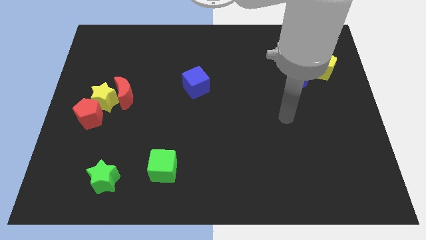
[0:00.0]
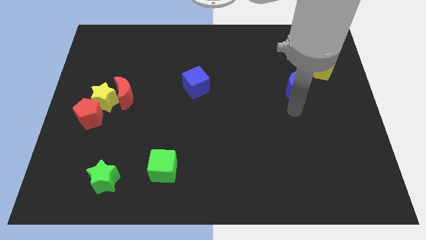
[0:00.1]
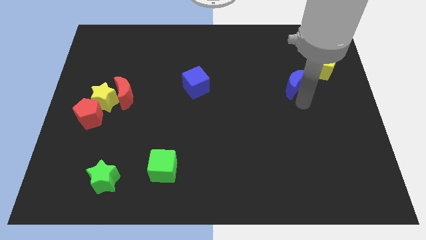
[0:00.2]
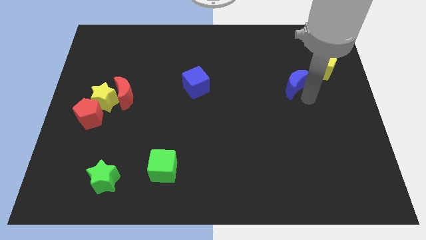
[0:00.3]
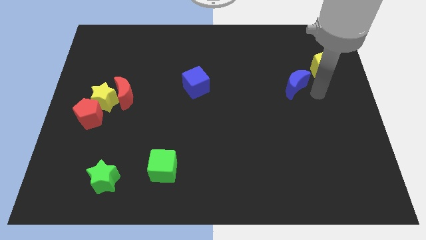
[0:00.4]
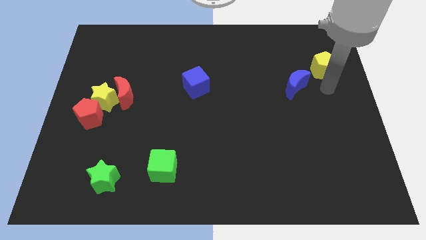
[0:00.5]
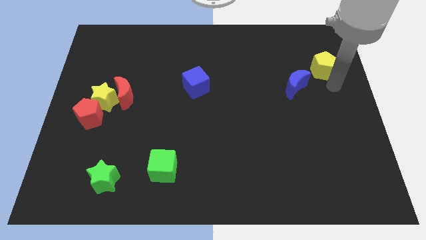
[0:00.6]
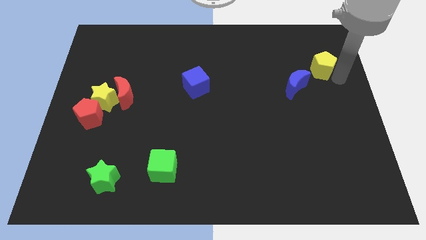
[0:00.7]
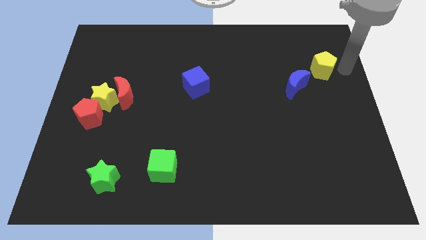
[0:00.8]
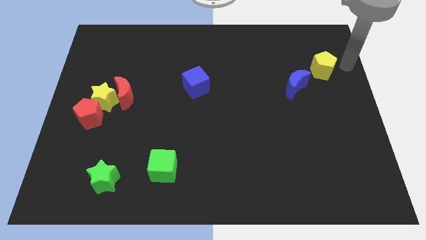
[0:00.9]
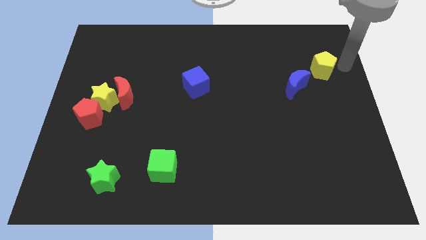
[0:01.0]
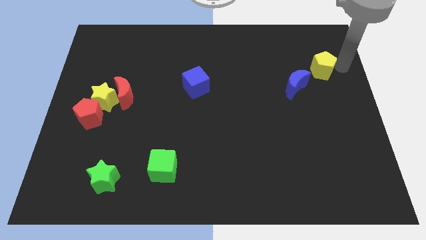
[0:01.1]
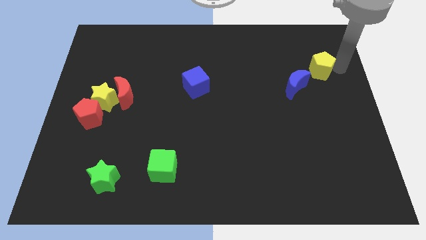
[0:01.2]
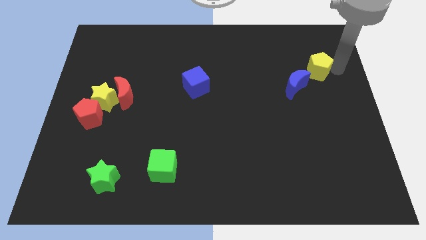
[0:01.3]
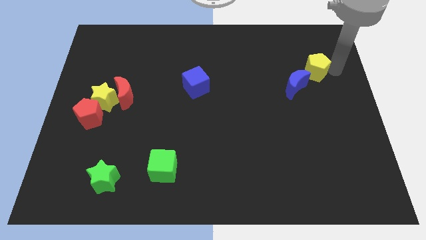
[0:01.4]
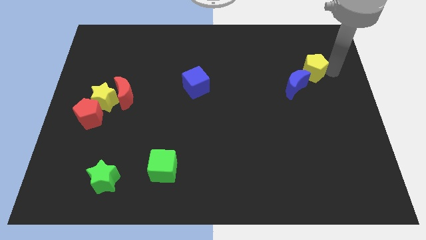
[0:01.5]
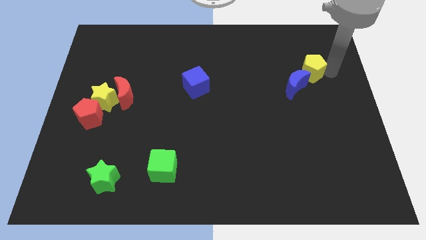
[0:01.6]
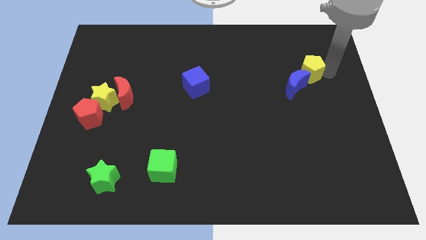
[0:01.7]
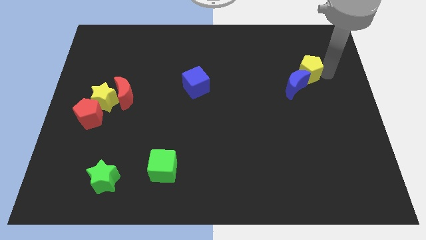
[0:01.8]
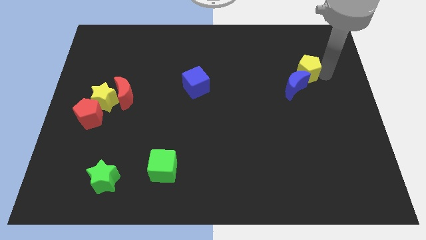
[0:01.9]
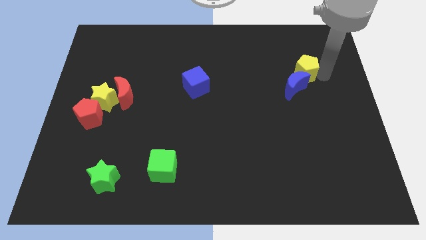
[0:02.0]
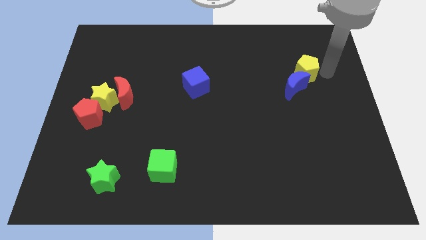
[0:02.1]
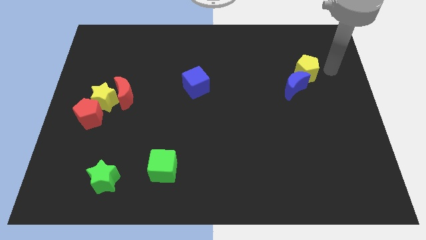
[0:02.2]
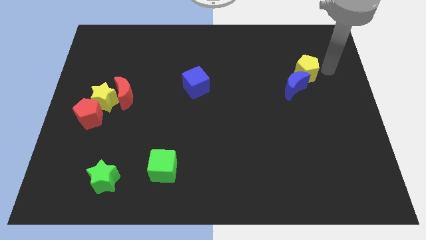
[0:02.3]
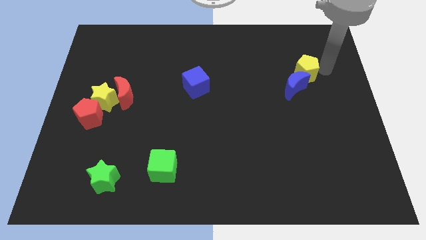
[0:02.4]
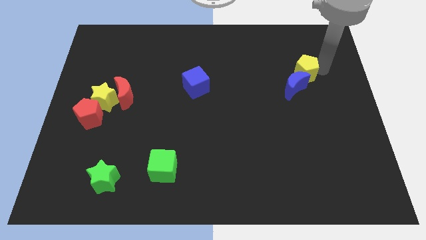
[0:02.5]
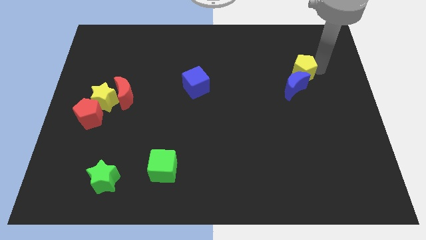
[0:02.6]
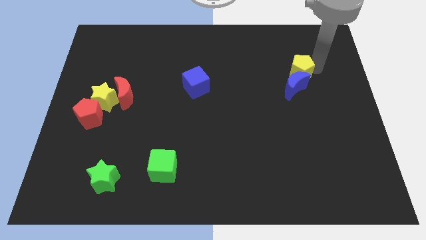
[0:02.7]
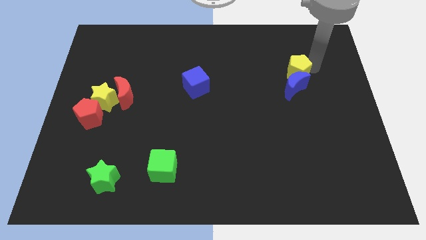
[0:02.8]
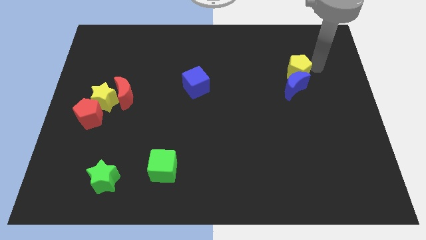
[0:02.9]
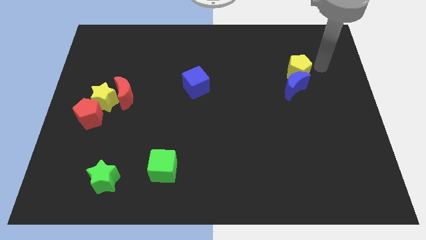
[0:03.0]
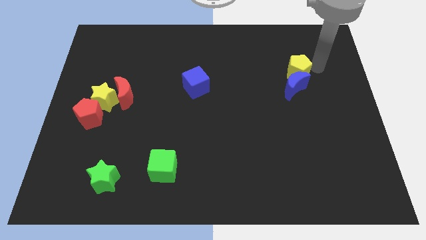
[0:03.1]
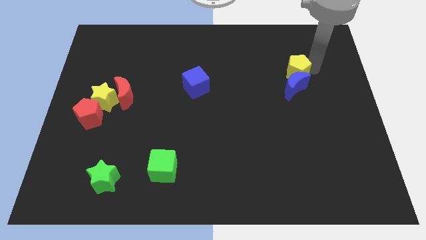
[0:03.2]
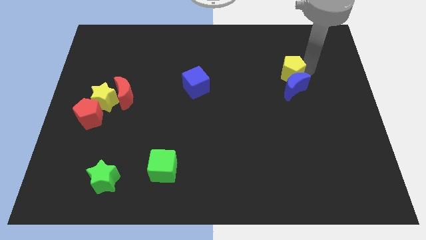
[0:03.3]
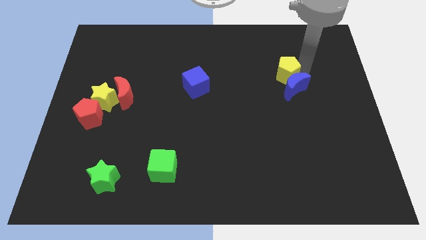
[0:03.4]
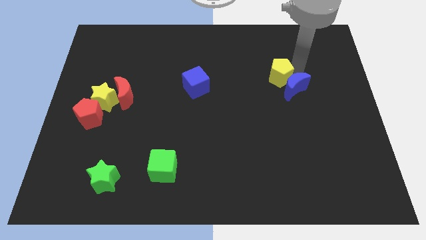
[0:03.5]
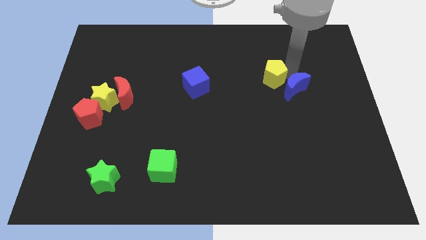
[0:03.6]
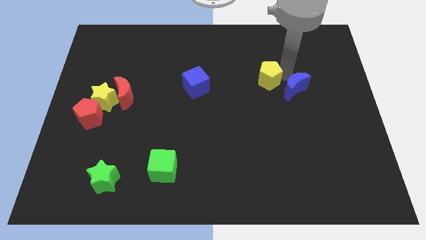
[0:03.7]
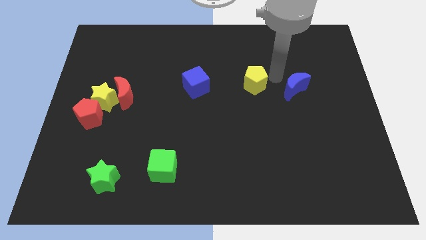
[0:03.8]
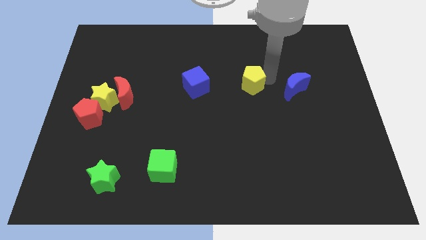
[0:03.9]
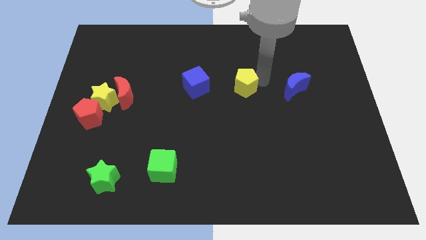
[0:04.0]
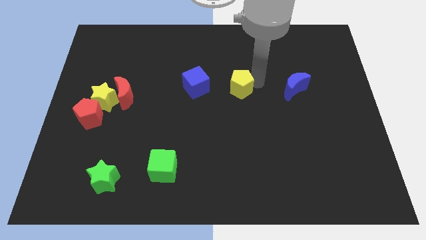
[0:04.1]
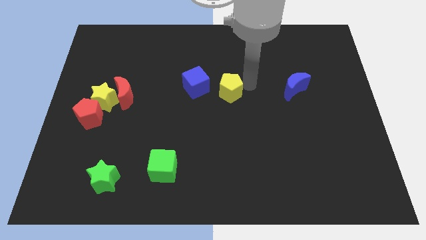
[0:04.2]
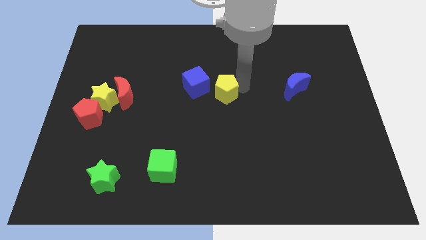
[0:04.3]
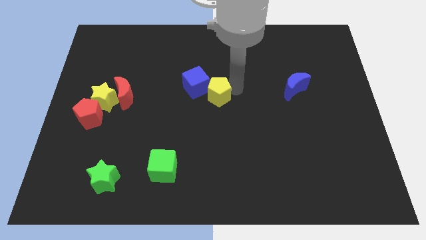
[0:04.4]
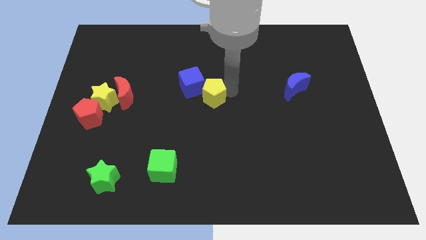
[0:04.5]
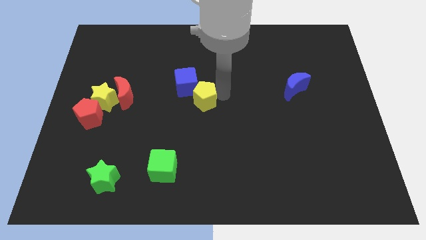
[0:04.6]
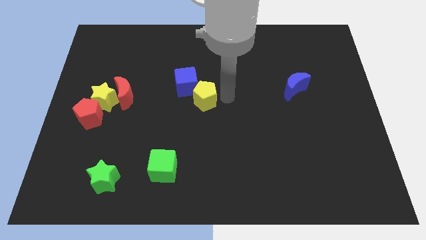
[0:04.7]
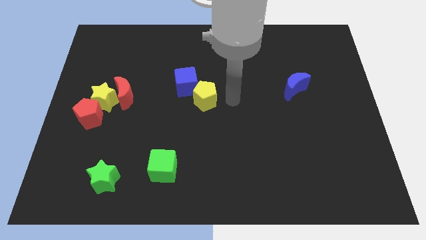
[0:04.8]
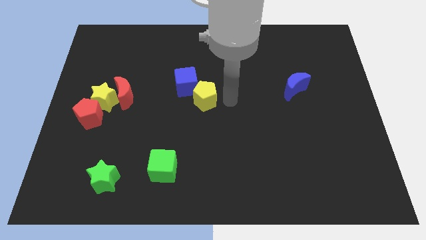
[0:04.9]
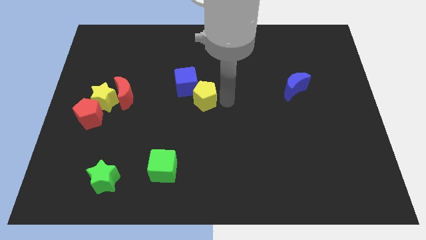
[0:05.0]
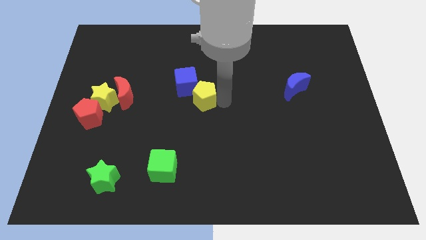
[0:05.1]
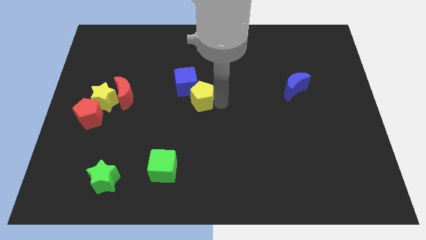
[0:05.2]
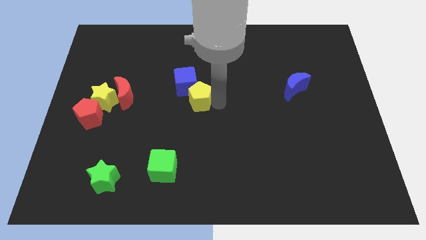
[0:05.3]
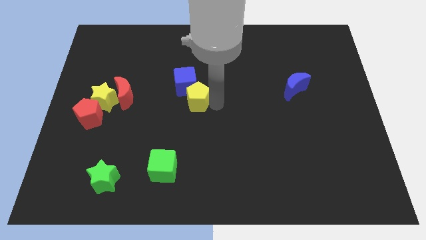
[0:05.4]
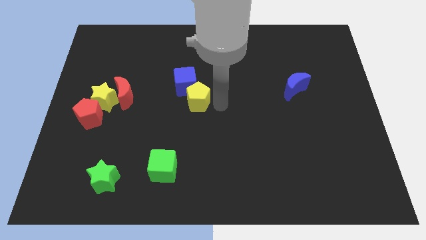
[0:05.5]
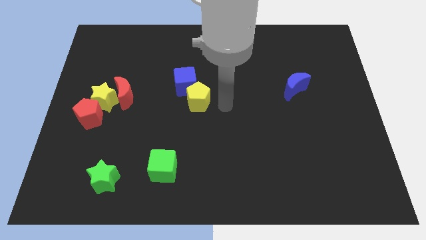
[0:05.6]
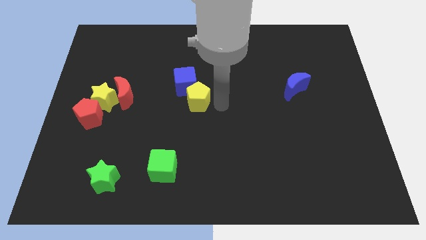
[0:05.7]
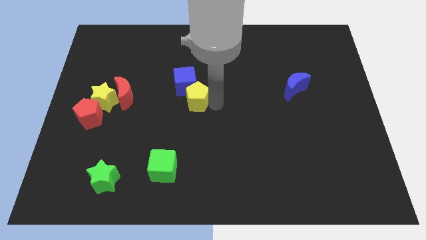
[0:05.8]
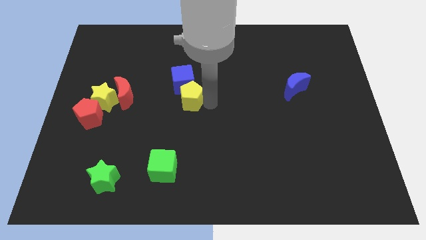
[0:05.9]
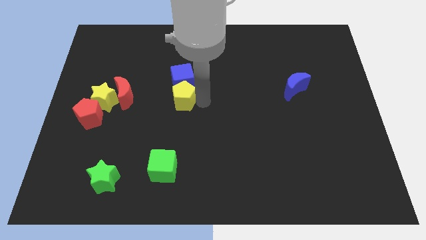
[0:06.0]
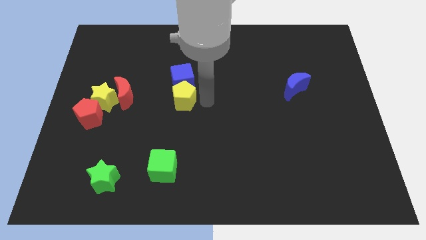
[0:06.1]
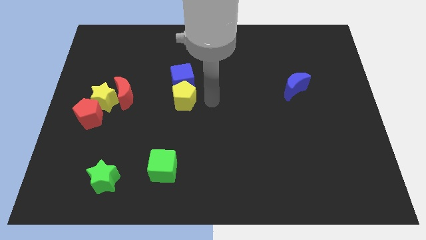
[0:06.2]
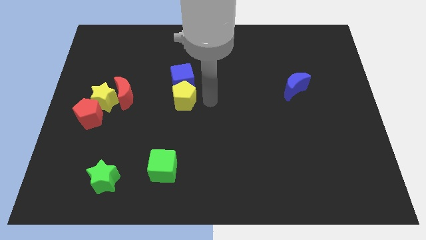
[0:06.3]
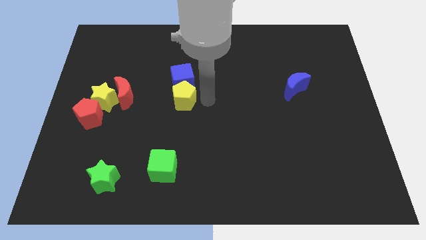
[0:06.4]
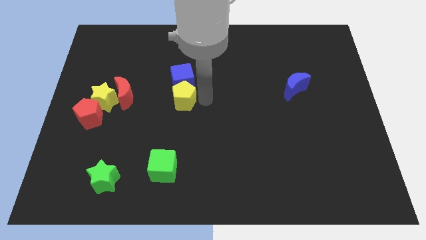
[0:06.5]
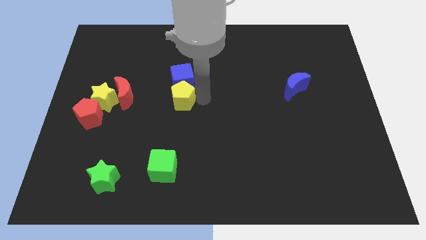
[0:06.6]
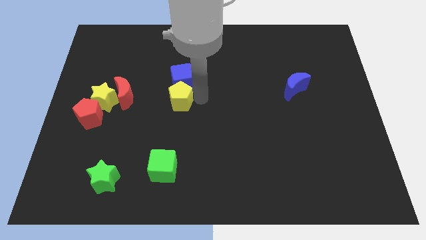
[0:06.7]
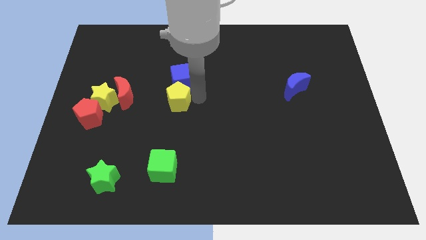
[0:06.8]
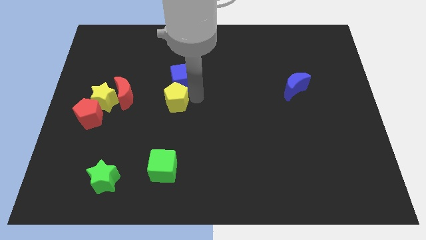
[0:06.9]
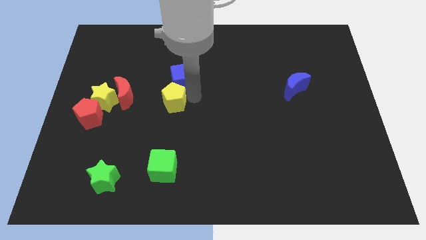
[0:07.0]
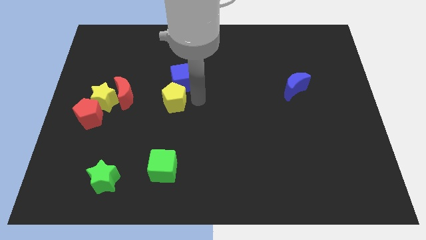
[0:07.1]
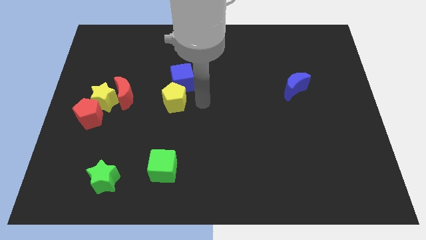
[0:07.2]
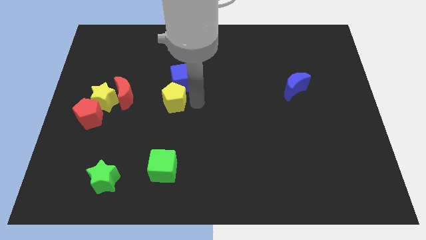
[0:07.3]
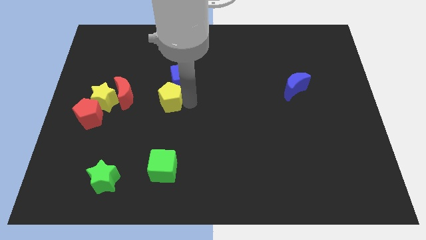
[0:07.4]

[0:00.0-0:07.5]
put the yellow pentagon right of the yellow star

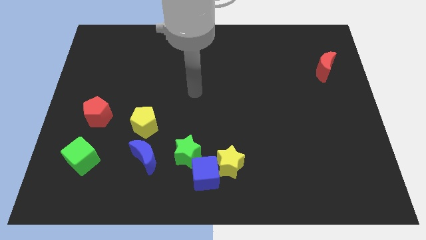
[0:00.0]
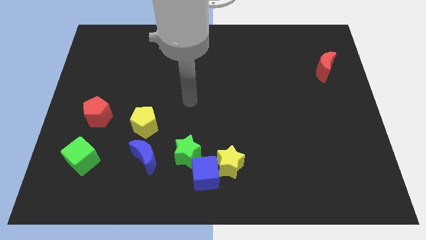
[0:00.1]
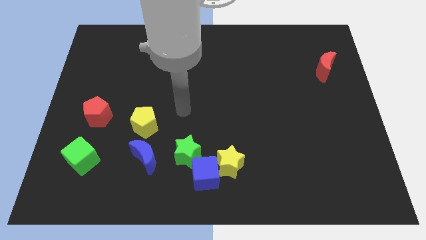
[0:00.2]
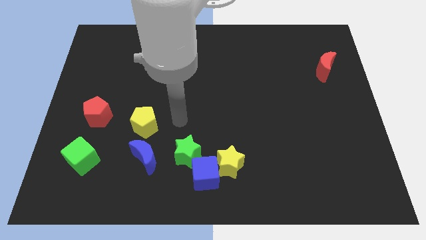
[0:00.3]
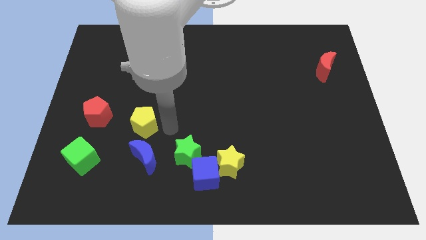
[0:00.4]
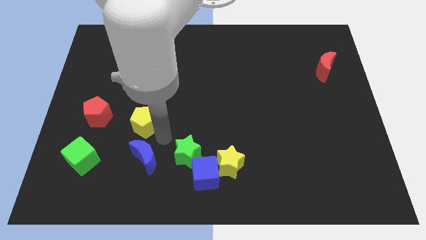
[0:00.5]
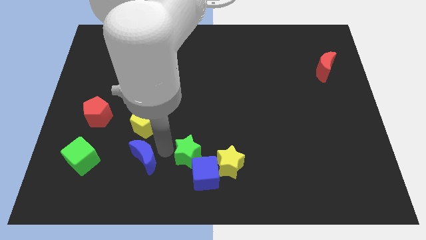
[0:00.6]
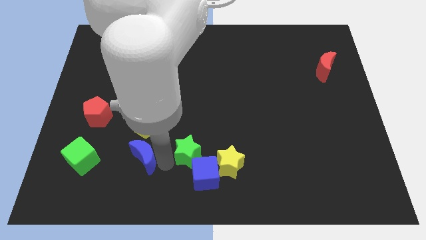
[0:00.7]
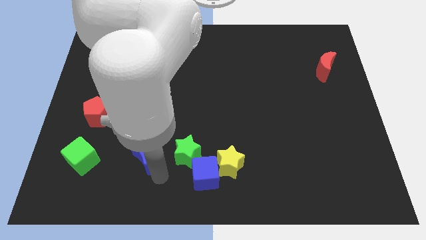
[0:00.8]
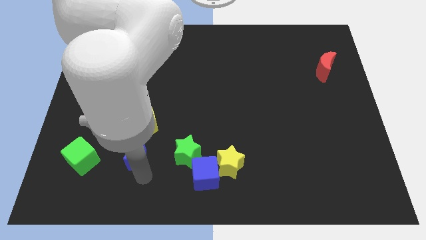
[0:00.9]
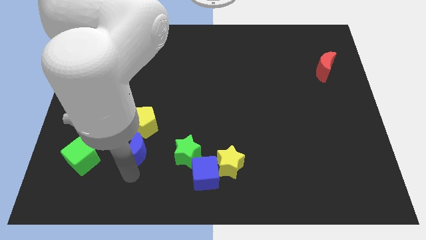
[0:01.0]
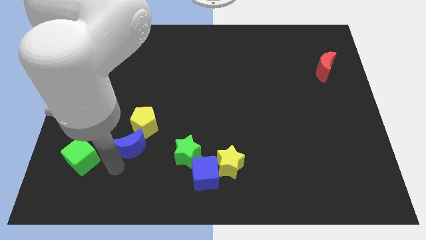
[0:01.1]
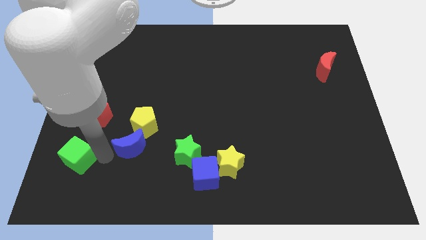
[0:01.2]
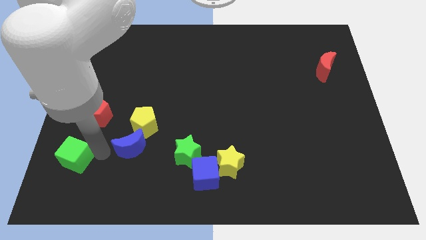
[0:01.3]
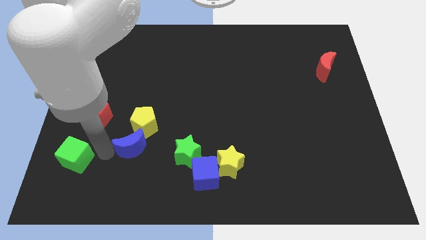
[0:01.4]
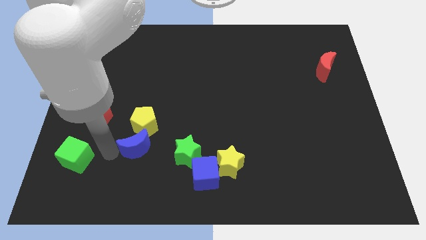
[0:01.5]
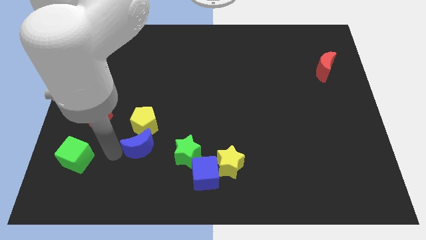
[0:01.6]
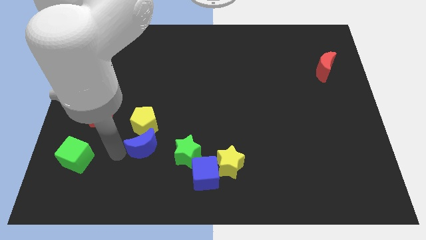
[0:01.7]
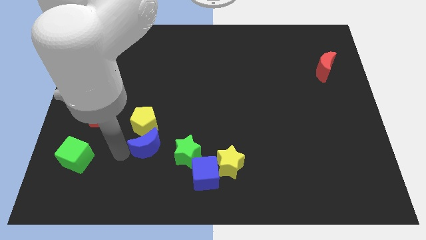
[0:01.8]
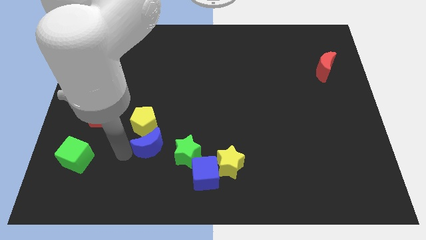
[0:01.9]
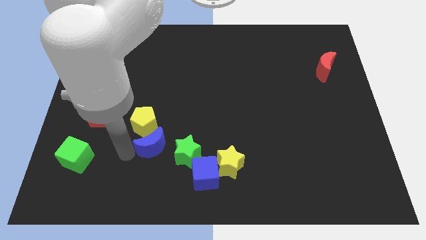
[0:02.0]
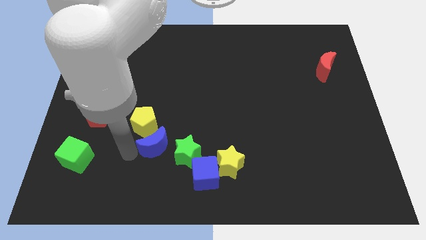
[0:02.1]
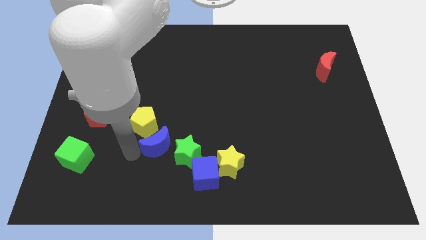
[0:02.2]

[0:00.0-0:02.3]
push the blue moon to the top left of the blue cube
